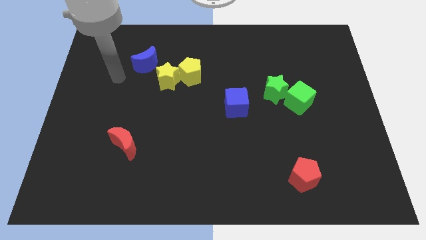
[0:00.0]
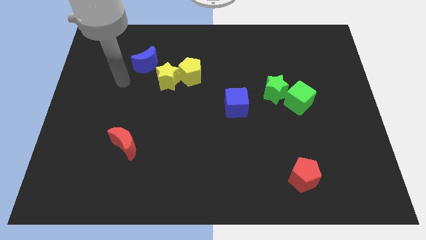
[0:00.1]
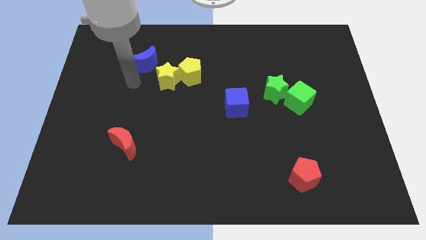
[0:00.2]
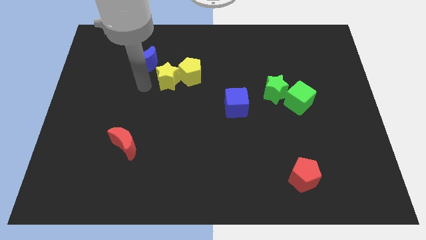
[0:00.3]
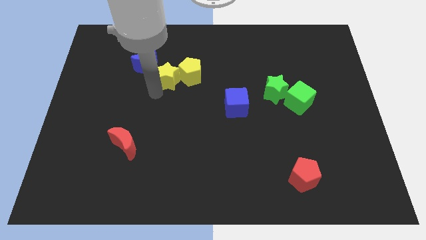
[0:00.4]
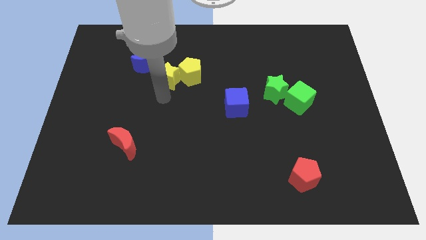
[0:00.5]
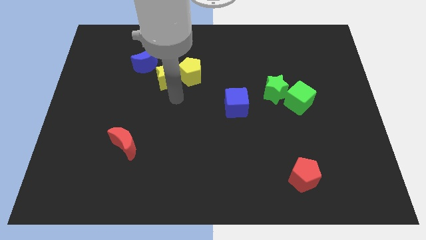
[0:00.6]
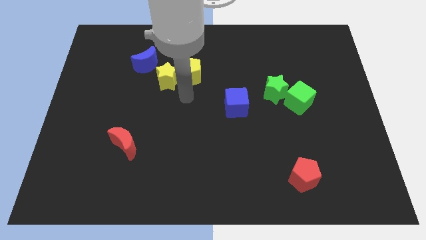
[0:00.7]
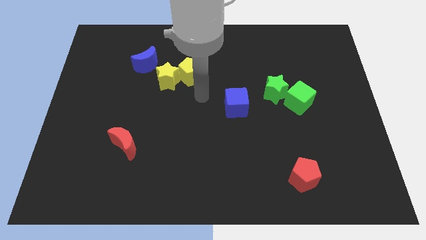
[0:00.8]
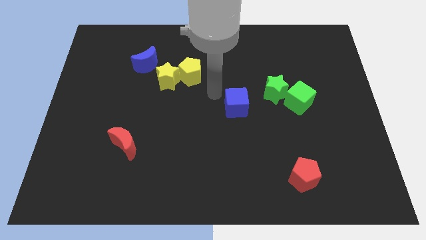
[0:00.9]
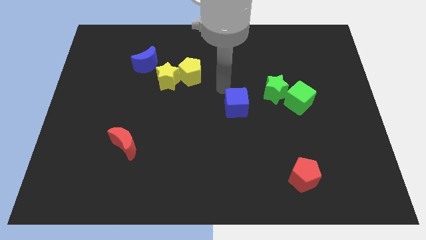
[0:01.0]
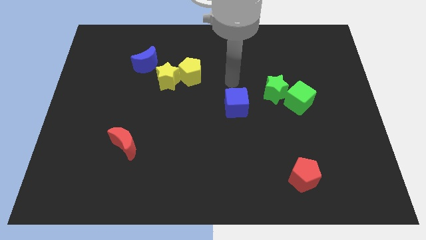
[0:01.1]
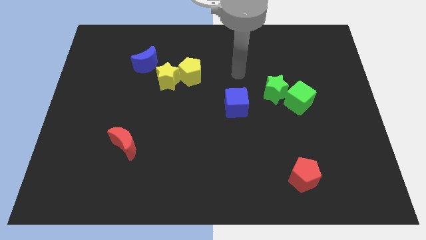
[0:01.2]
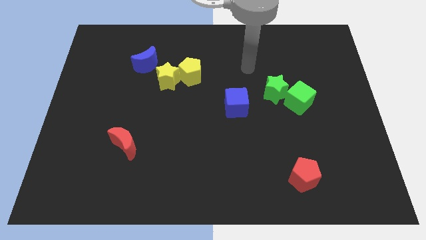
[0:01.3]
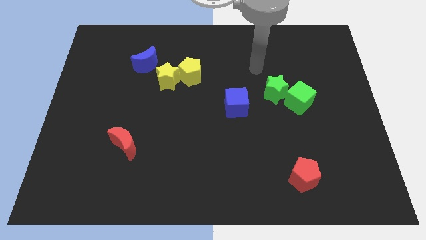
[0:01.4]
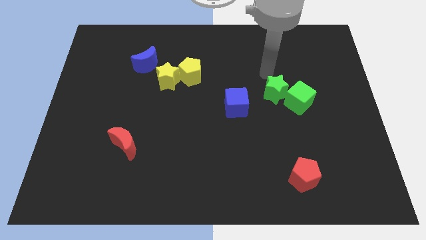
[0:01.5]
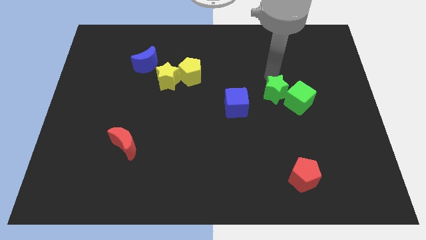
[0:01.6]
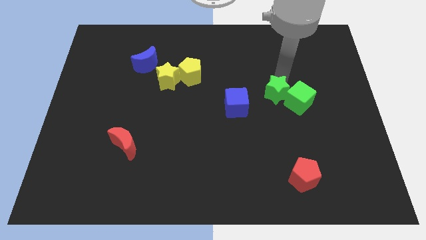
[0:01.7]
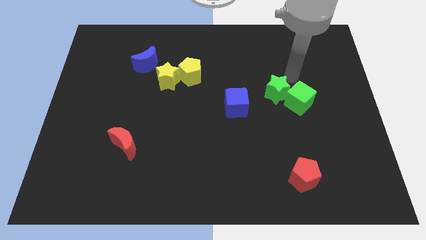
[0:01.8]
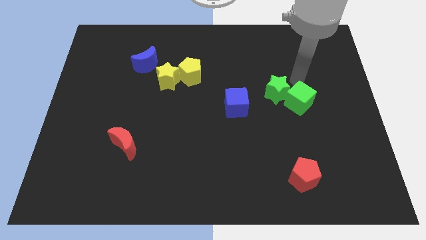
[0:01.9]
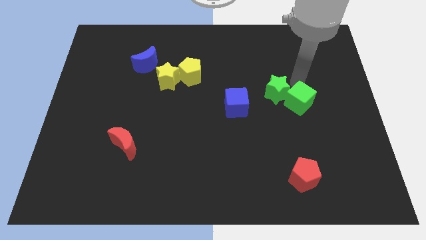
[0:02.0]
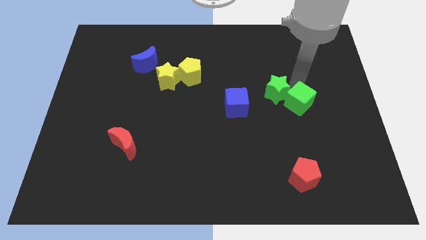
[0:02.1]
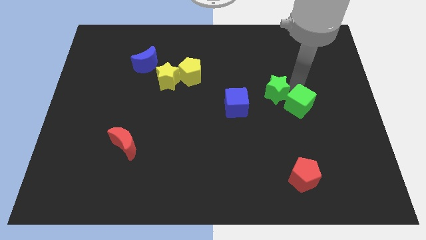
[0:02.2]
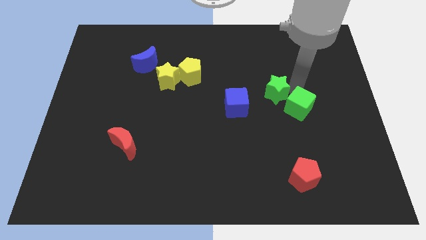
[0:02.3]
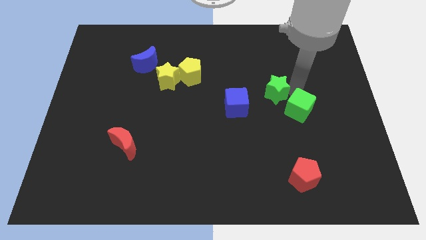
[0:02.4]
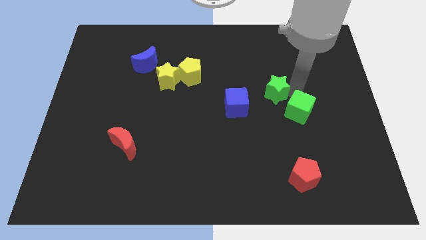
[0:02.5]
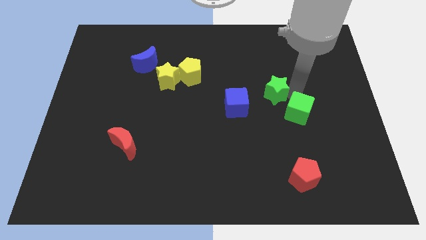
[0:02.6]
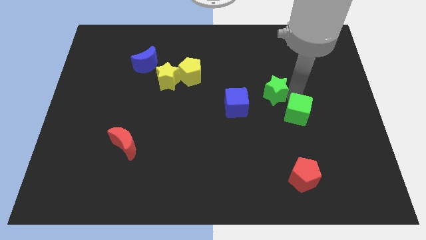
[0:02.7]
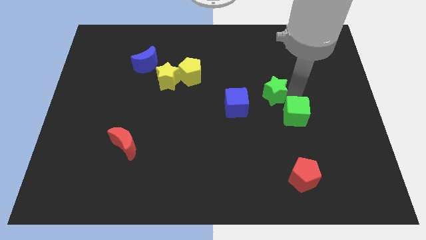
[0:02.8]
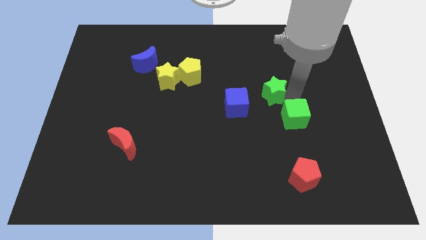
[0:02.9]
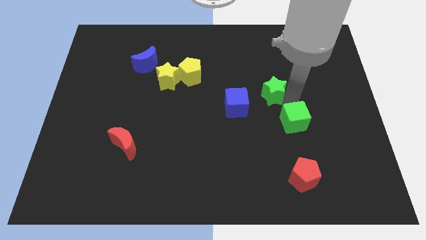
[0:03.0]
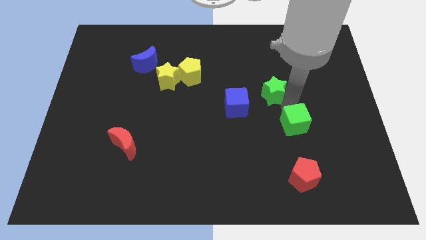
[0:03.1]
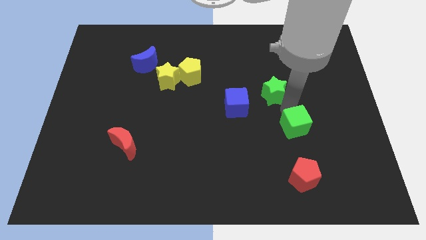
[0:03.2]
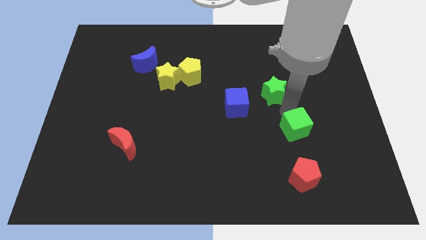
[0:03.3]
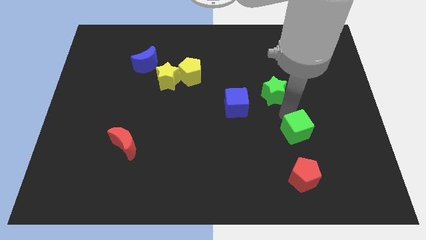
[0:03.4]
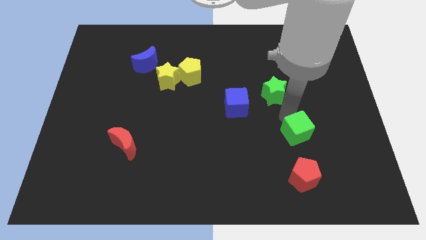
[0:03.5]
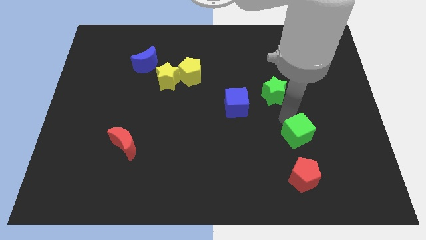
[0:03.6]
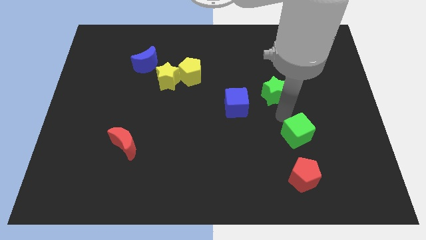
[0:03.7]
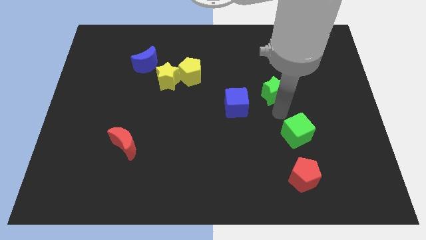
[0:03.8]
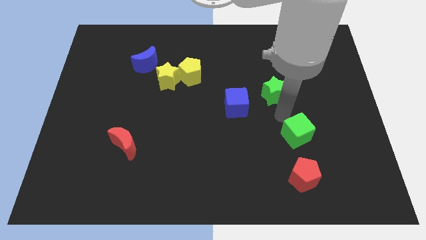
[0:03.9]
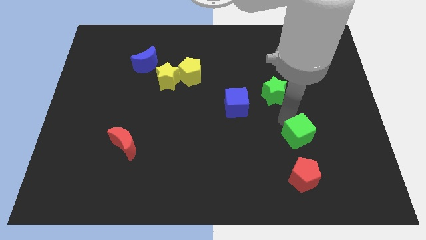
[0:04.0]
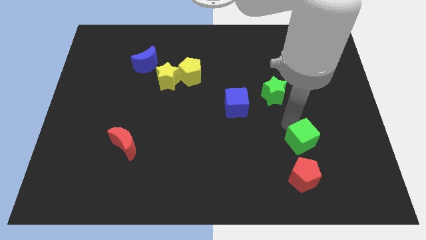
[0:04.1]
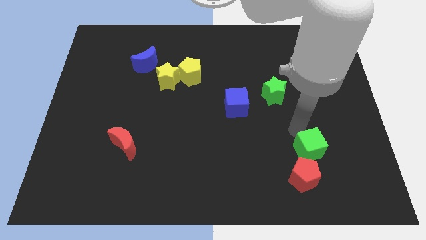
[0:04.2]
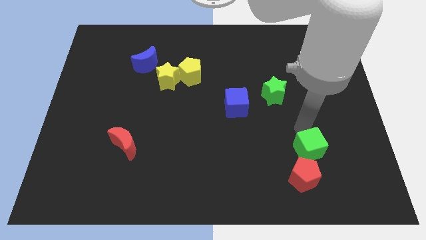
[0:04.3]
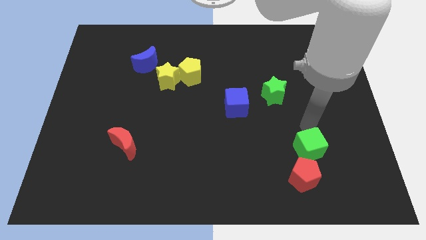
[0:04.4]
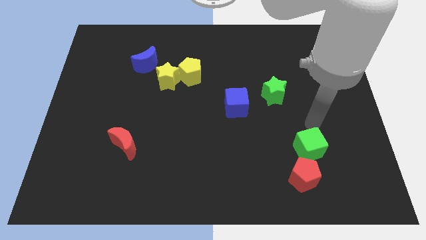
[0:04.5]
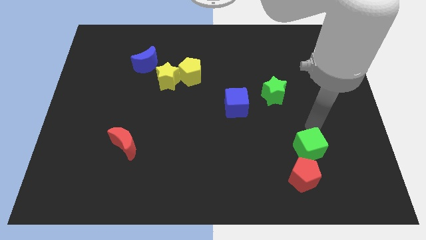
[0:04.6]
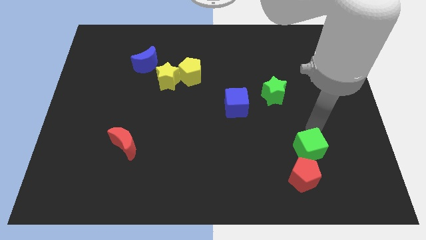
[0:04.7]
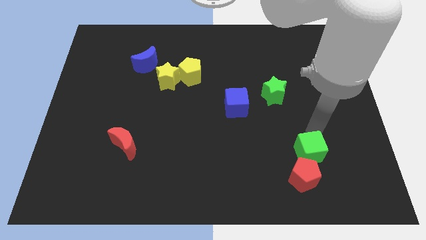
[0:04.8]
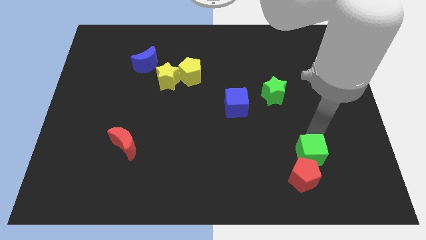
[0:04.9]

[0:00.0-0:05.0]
slide the green cube close to the red pentagon

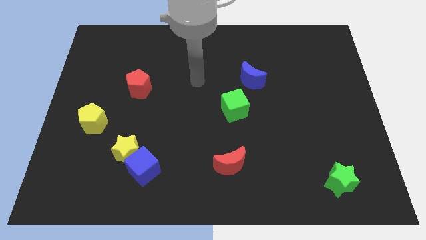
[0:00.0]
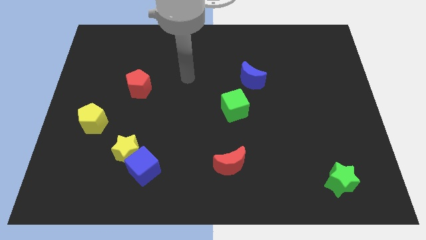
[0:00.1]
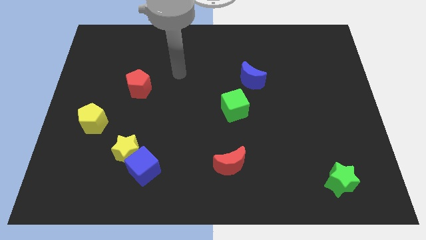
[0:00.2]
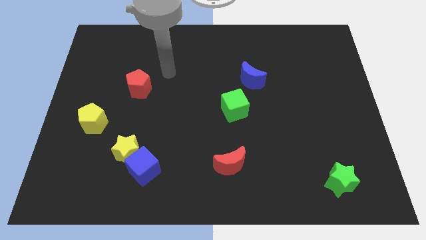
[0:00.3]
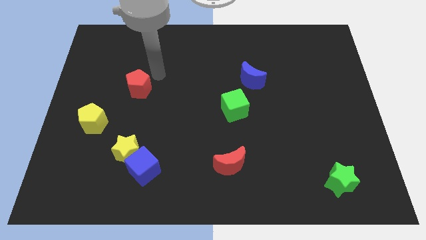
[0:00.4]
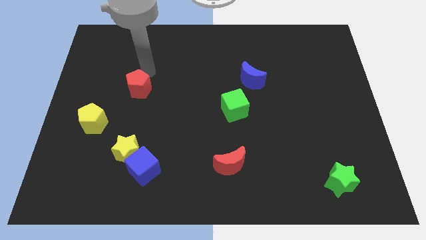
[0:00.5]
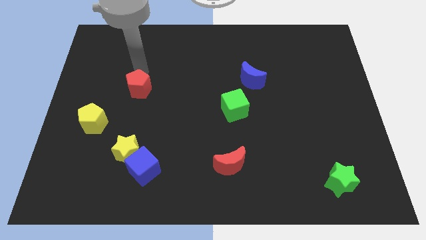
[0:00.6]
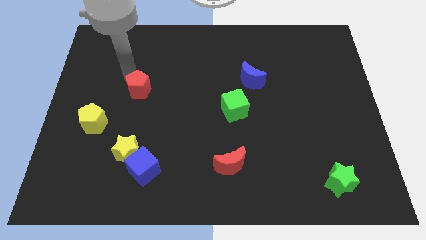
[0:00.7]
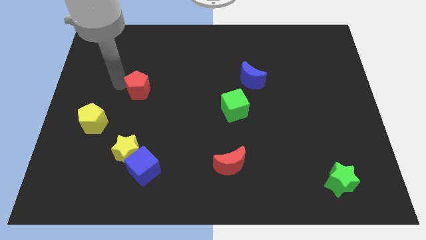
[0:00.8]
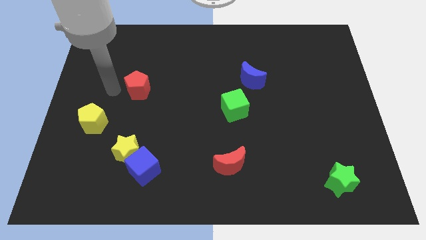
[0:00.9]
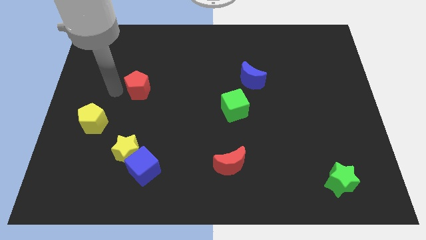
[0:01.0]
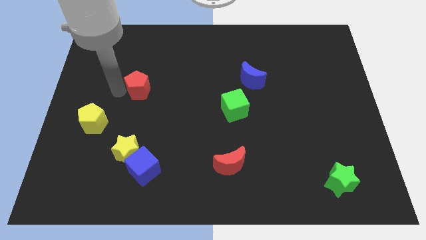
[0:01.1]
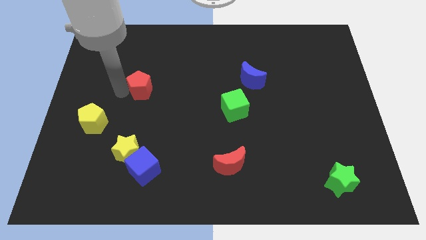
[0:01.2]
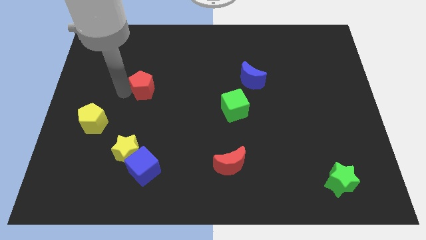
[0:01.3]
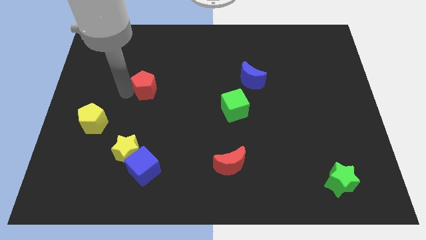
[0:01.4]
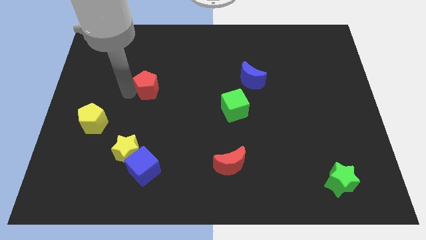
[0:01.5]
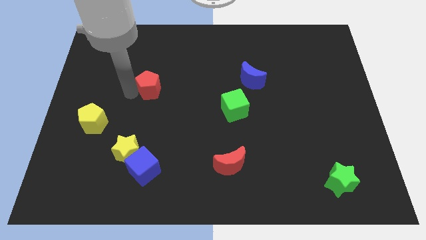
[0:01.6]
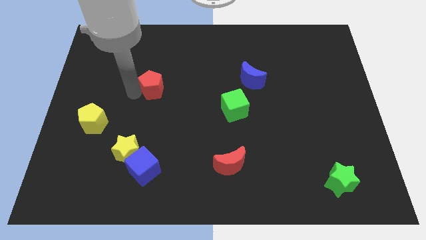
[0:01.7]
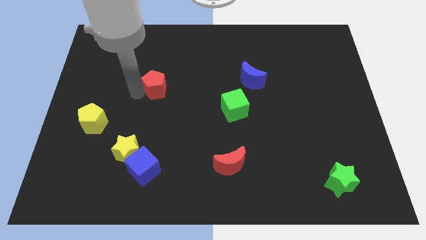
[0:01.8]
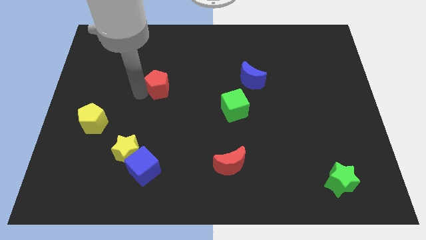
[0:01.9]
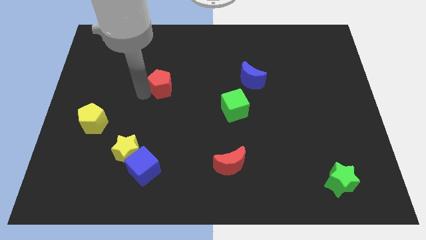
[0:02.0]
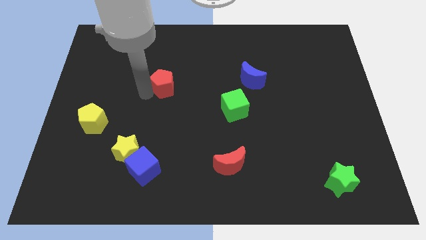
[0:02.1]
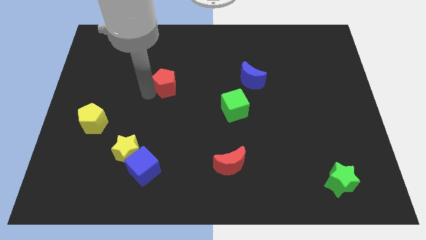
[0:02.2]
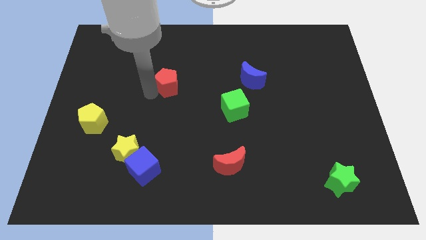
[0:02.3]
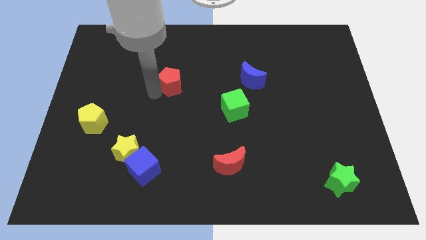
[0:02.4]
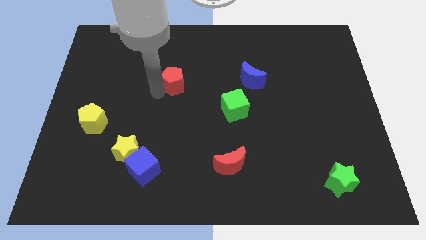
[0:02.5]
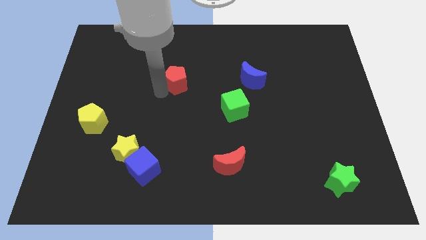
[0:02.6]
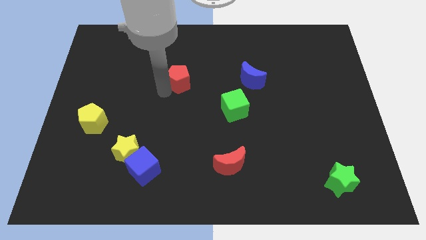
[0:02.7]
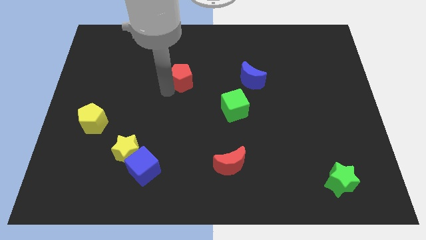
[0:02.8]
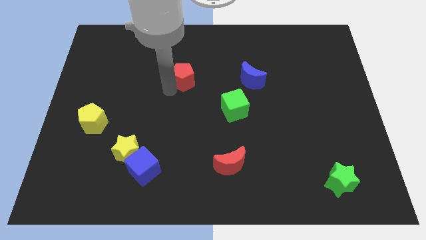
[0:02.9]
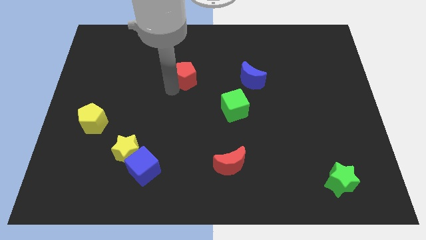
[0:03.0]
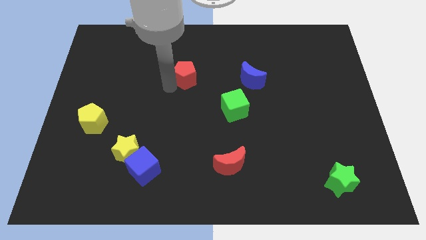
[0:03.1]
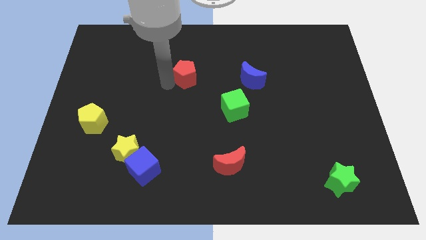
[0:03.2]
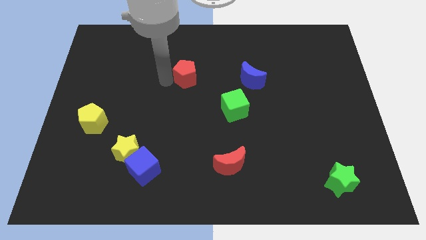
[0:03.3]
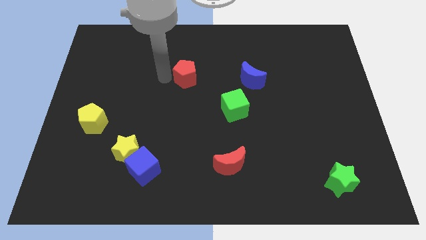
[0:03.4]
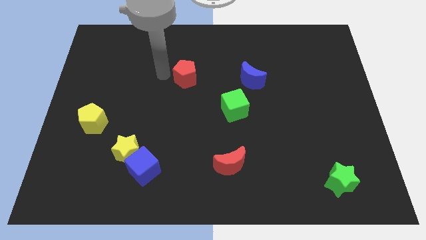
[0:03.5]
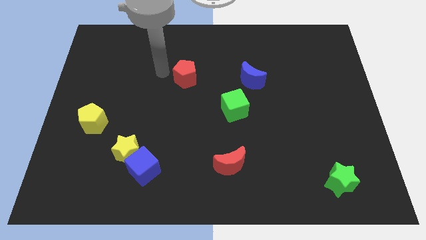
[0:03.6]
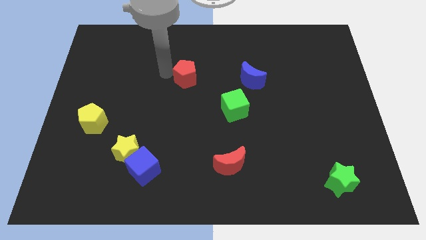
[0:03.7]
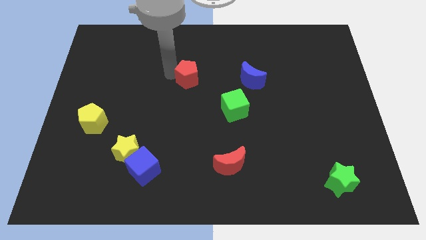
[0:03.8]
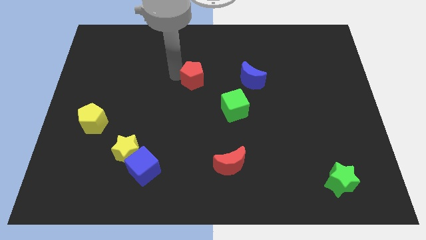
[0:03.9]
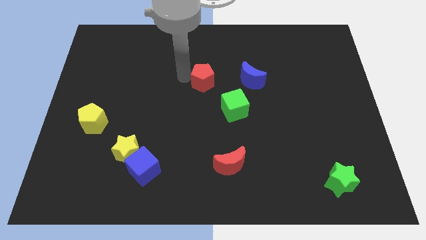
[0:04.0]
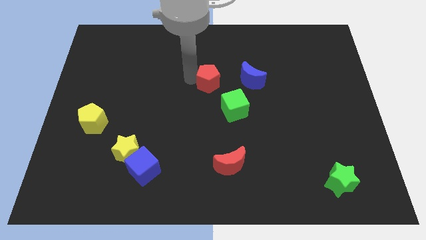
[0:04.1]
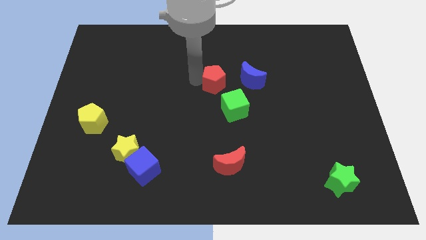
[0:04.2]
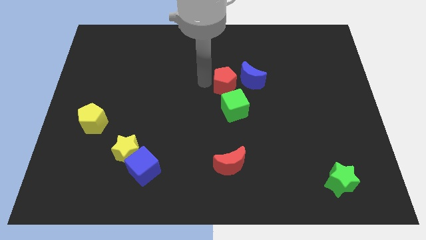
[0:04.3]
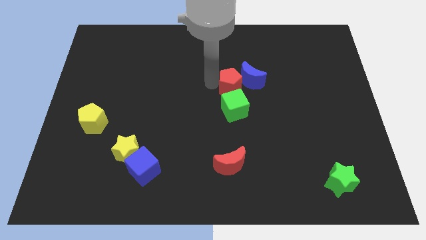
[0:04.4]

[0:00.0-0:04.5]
push the red pentagon to the blue moon
